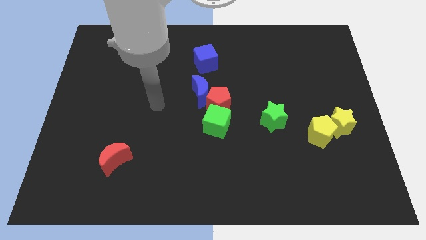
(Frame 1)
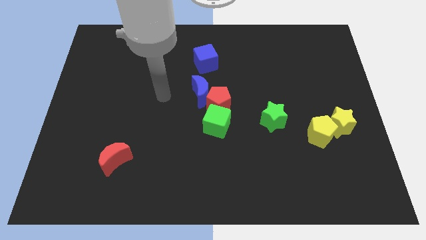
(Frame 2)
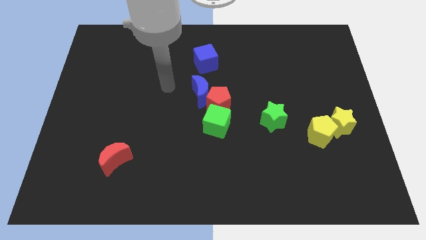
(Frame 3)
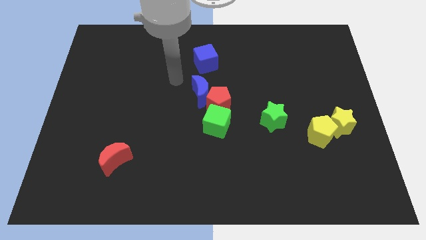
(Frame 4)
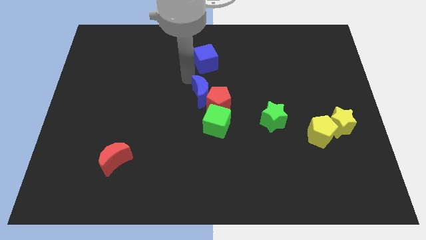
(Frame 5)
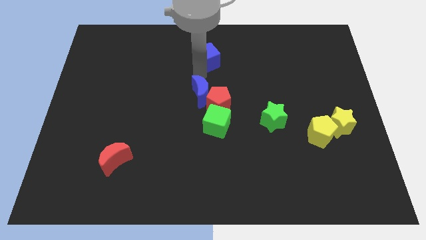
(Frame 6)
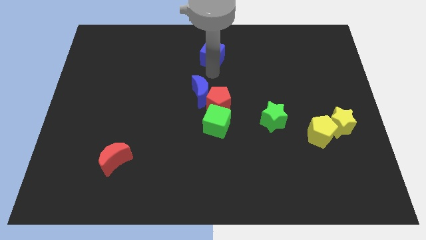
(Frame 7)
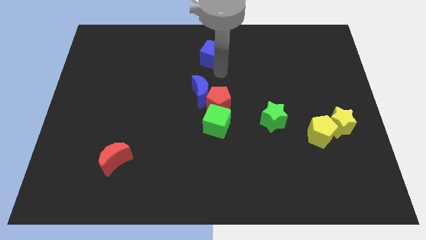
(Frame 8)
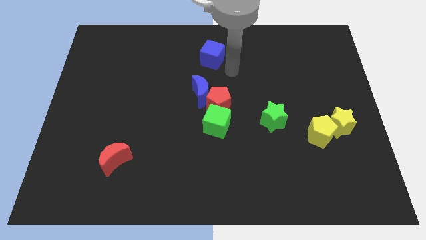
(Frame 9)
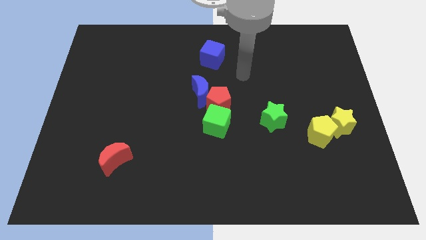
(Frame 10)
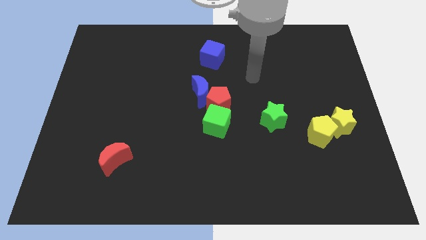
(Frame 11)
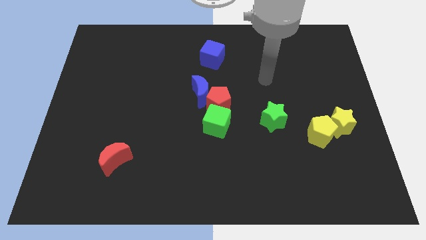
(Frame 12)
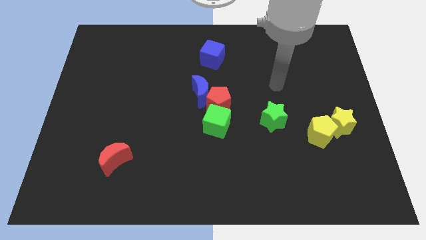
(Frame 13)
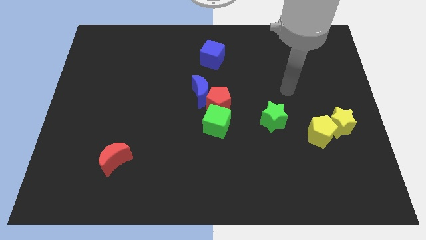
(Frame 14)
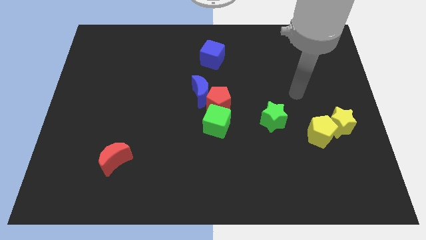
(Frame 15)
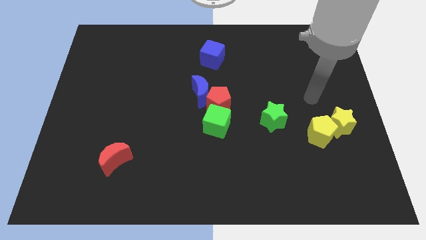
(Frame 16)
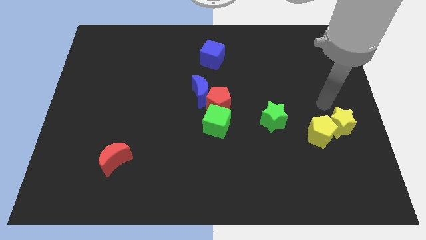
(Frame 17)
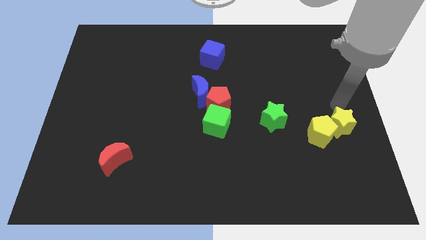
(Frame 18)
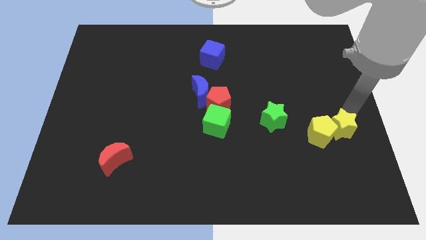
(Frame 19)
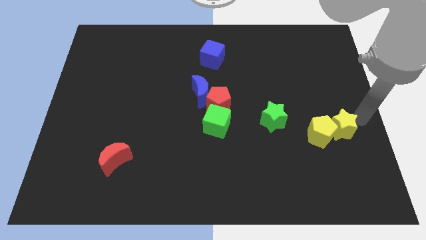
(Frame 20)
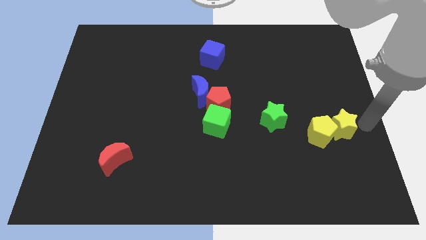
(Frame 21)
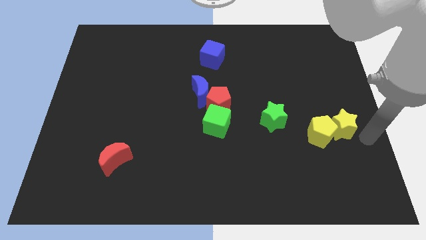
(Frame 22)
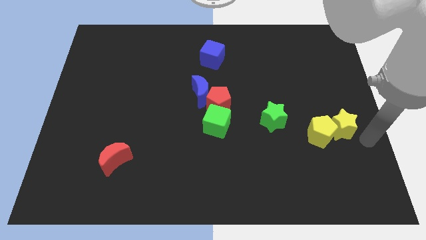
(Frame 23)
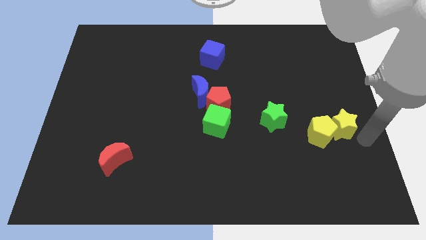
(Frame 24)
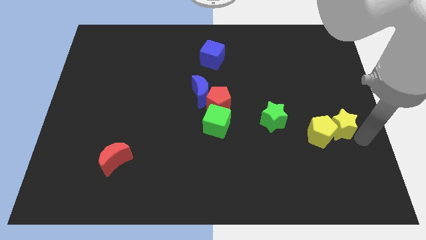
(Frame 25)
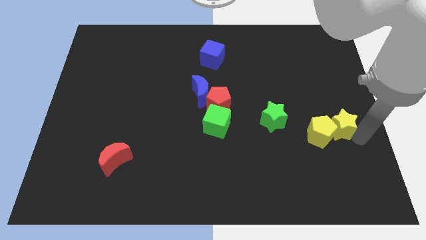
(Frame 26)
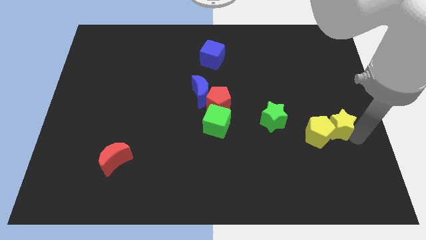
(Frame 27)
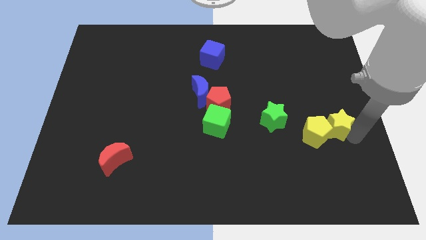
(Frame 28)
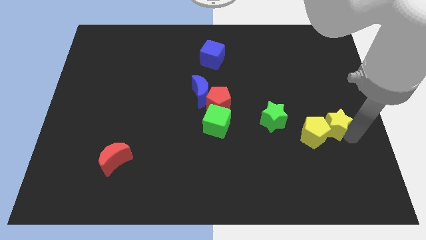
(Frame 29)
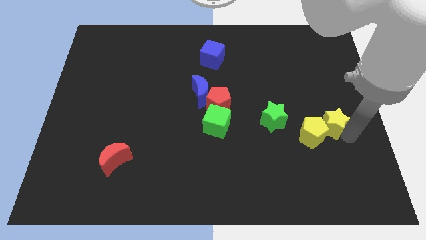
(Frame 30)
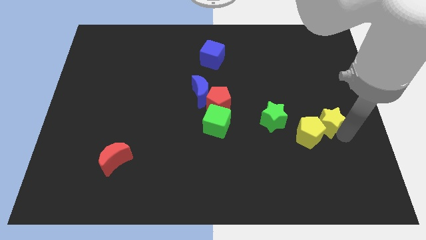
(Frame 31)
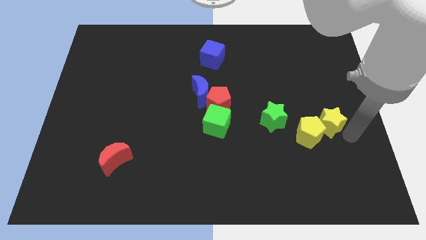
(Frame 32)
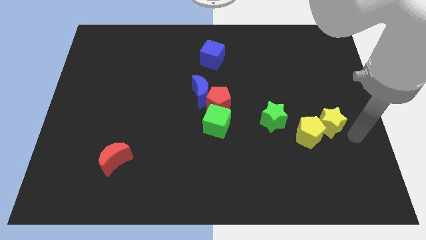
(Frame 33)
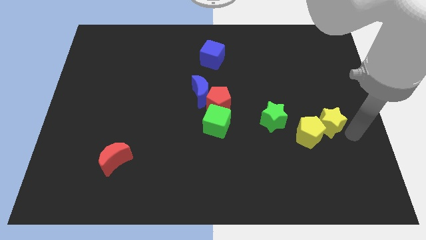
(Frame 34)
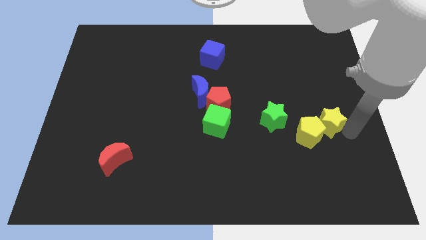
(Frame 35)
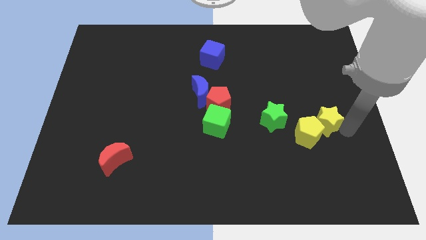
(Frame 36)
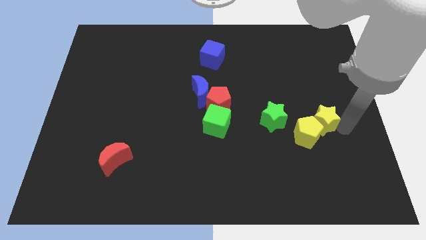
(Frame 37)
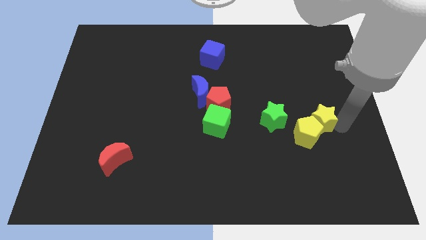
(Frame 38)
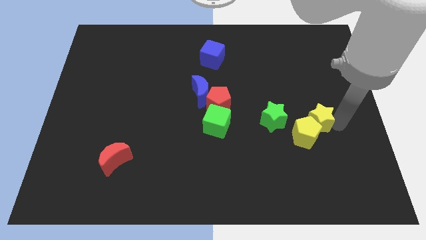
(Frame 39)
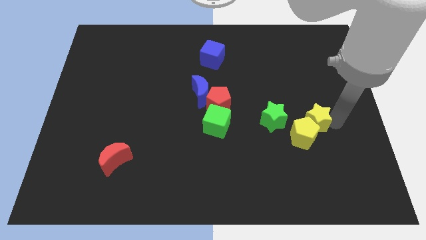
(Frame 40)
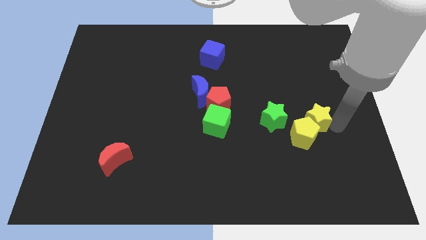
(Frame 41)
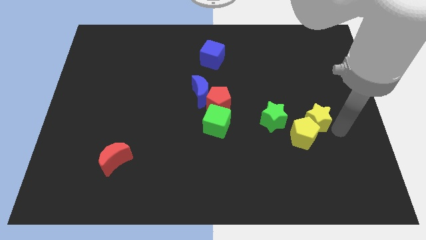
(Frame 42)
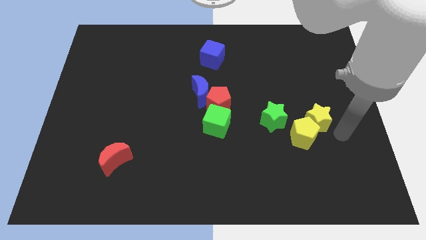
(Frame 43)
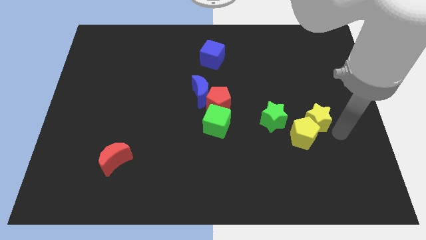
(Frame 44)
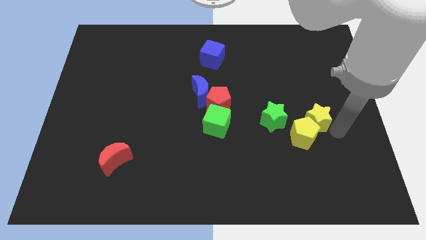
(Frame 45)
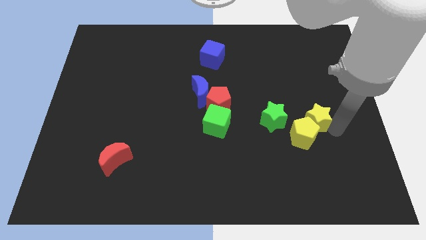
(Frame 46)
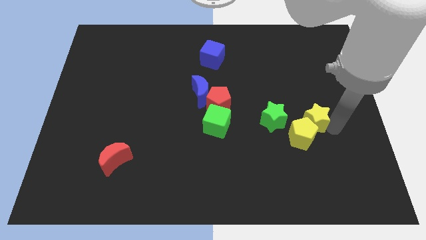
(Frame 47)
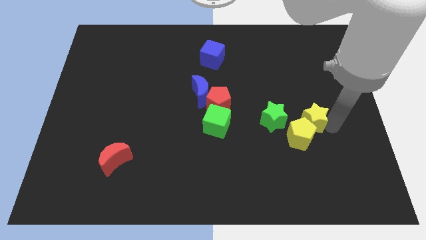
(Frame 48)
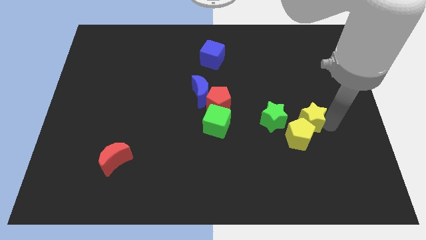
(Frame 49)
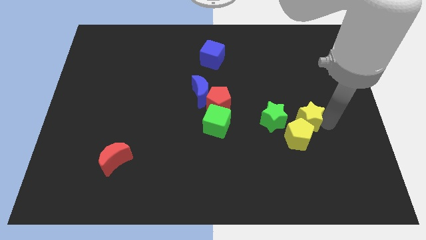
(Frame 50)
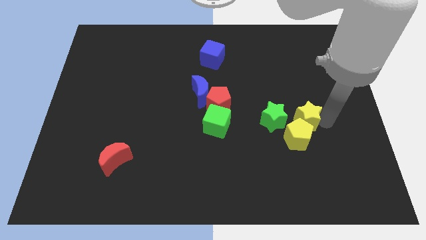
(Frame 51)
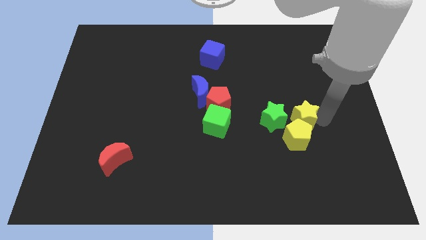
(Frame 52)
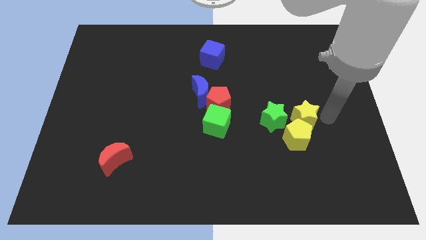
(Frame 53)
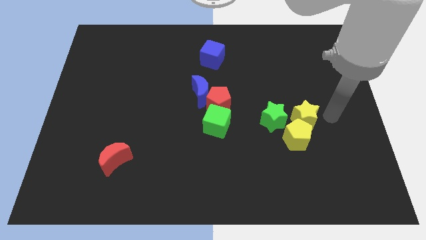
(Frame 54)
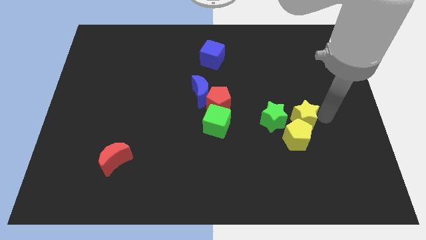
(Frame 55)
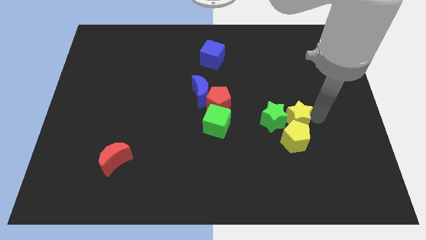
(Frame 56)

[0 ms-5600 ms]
push the yellow star towards the green star

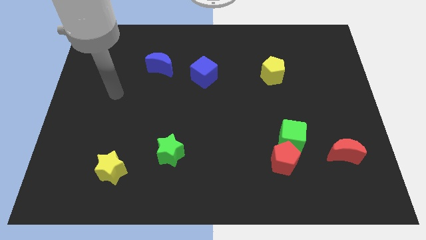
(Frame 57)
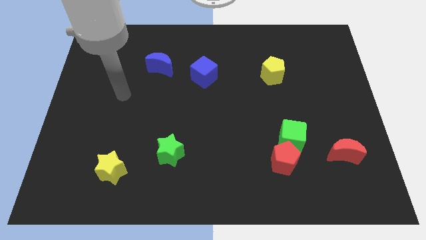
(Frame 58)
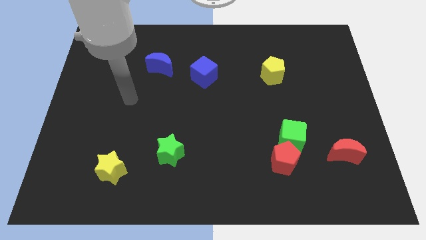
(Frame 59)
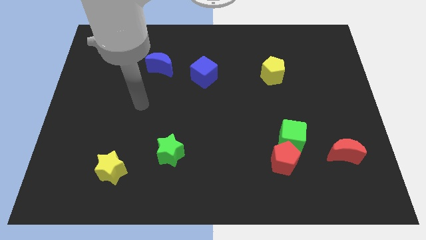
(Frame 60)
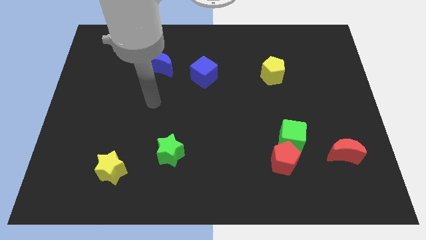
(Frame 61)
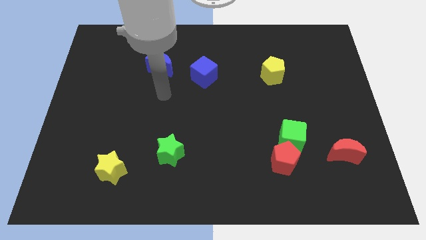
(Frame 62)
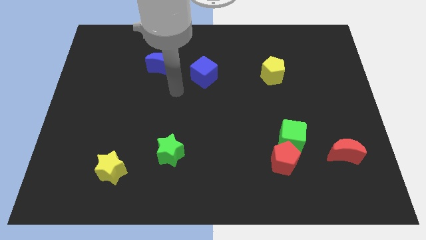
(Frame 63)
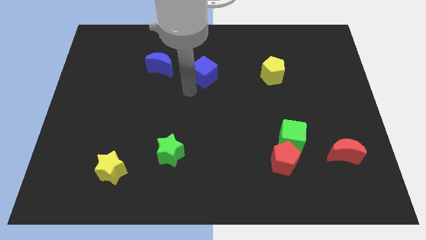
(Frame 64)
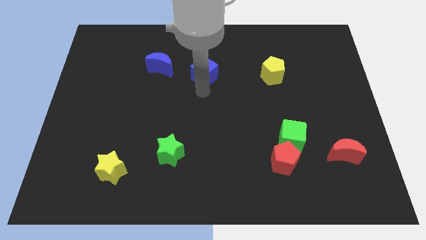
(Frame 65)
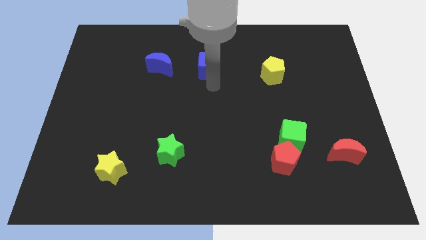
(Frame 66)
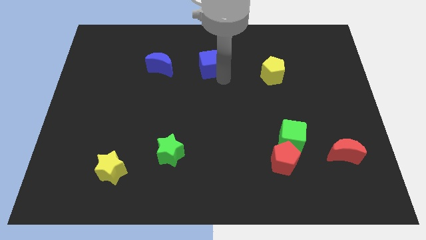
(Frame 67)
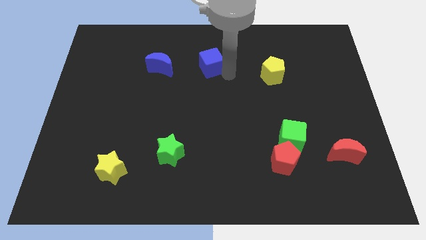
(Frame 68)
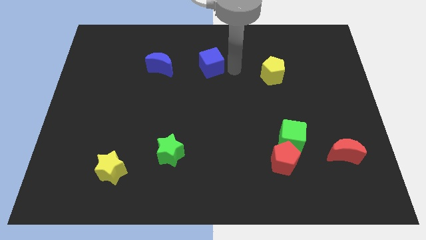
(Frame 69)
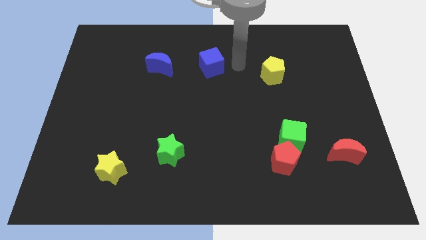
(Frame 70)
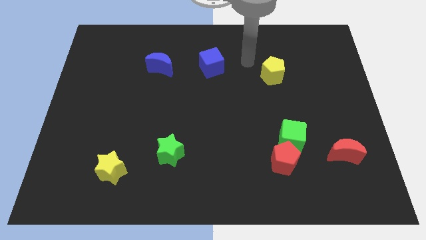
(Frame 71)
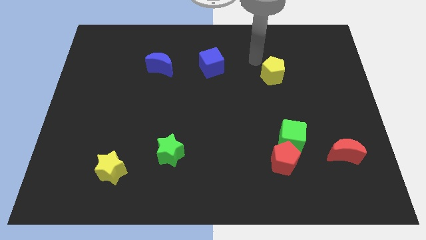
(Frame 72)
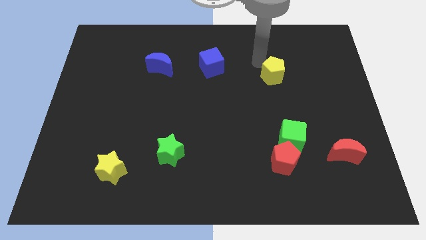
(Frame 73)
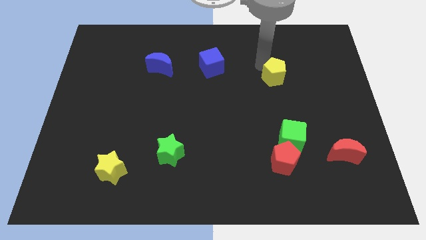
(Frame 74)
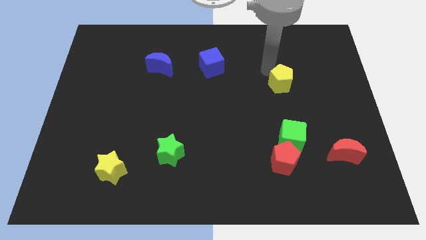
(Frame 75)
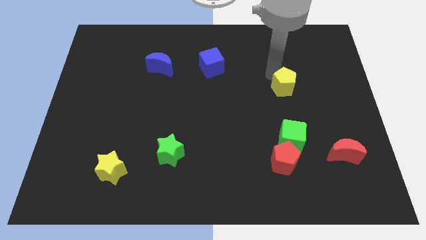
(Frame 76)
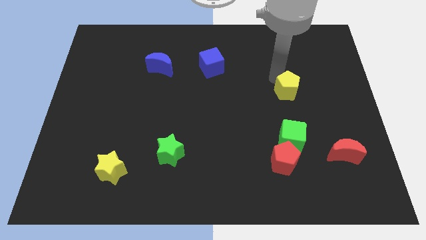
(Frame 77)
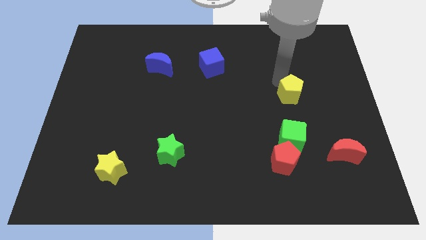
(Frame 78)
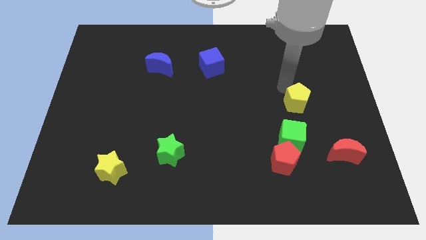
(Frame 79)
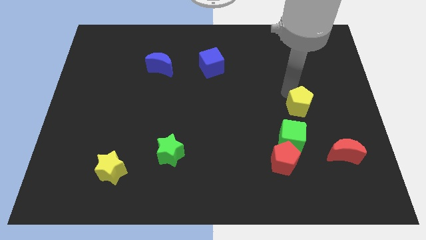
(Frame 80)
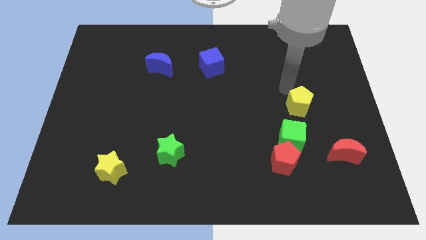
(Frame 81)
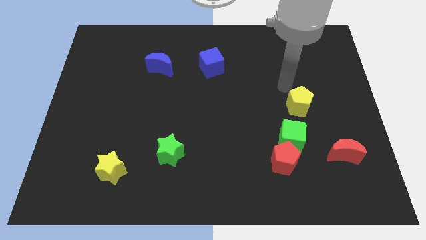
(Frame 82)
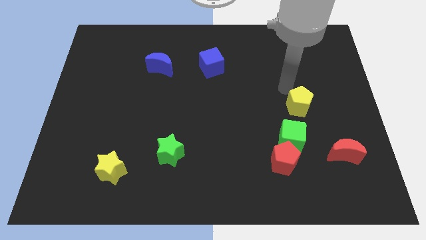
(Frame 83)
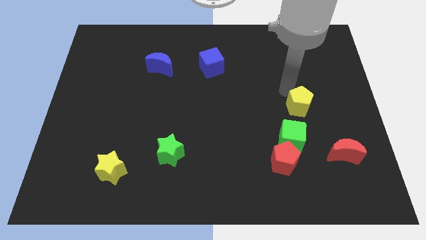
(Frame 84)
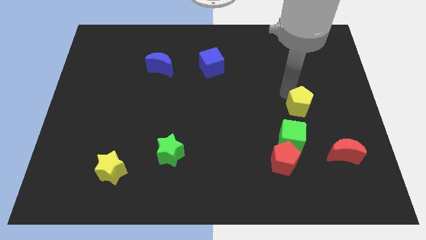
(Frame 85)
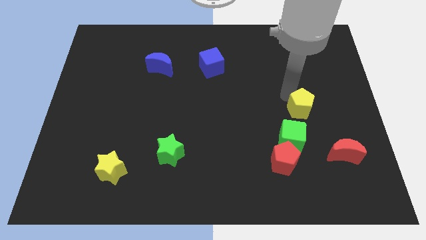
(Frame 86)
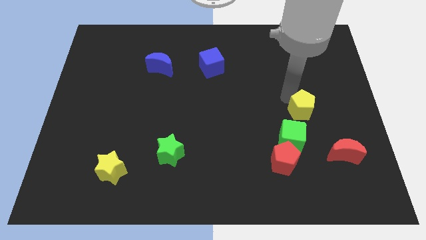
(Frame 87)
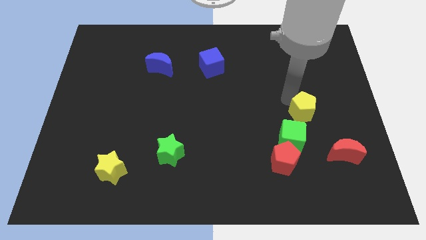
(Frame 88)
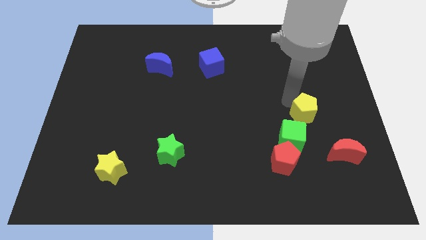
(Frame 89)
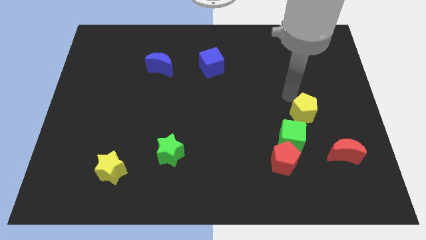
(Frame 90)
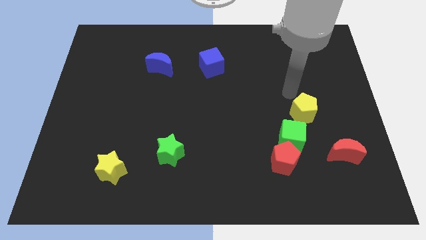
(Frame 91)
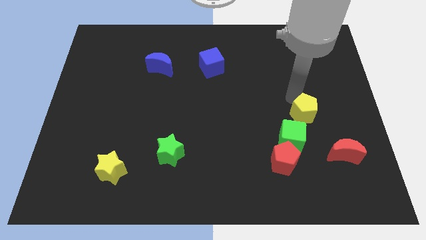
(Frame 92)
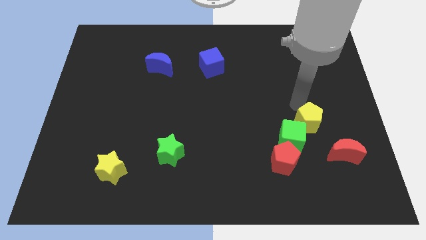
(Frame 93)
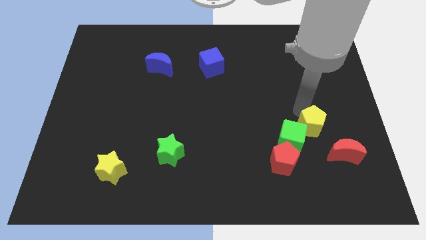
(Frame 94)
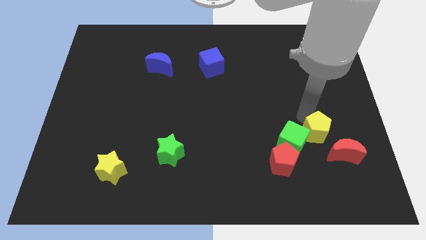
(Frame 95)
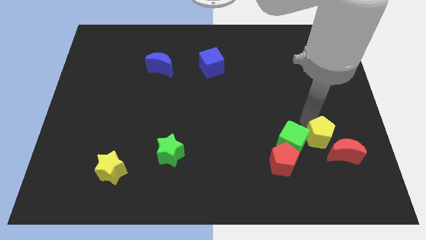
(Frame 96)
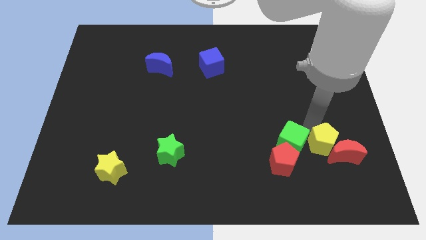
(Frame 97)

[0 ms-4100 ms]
put the yellow pentagon close to the red moon
